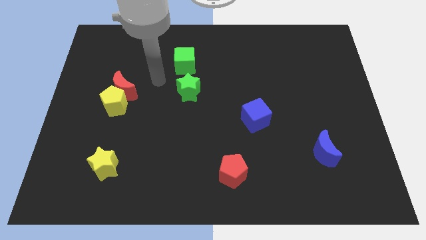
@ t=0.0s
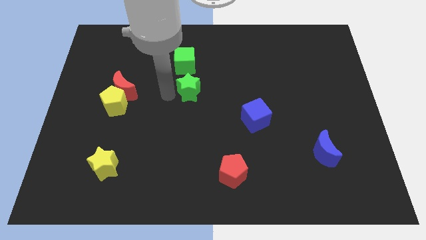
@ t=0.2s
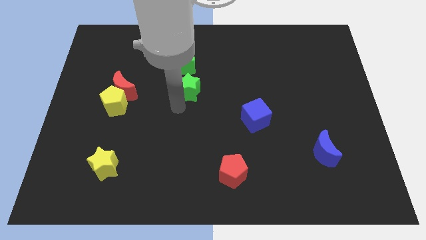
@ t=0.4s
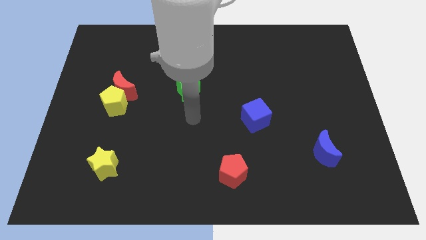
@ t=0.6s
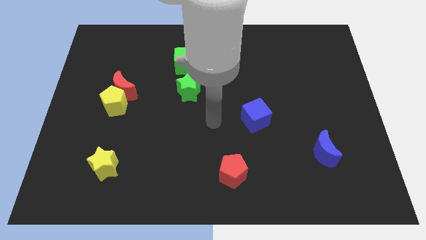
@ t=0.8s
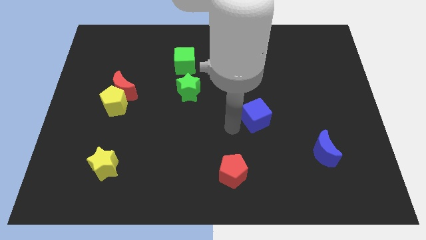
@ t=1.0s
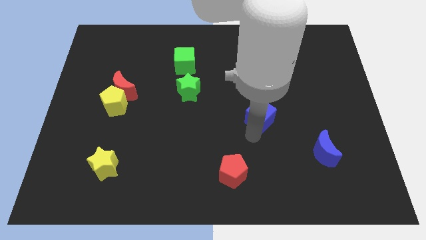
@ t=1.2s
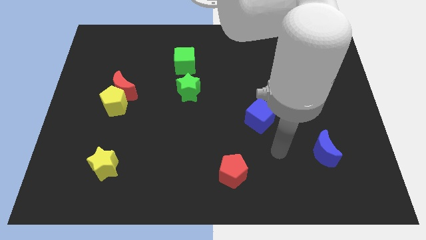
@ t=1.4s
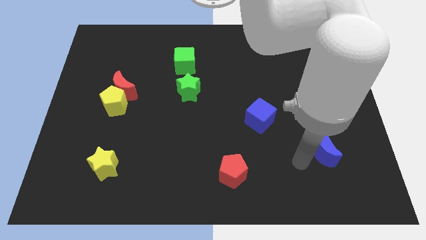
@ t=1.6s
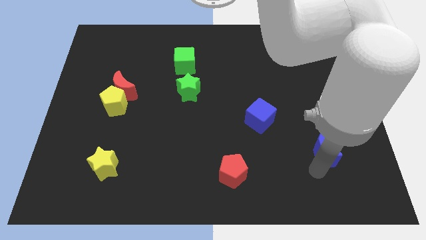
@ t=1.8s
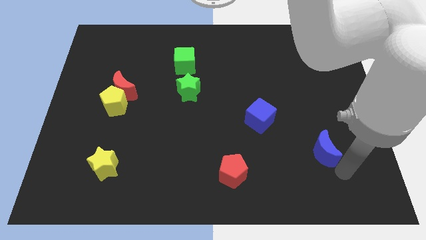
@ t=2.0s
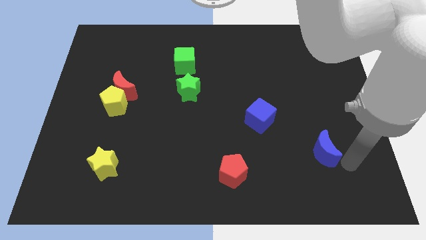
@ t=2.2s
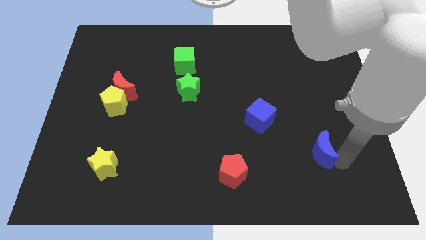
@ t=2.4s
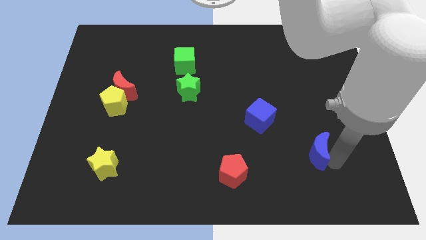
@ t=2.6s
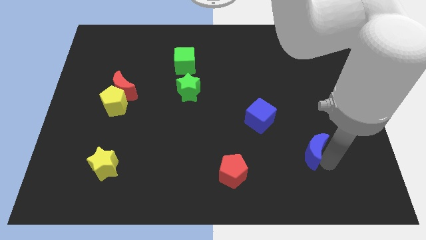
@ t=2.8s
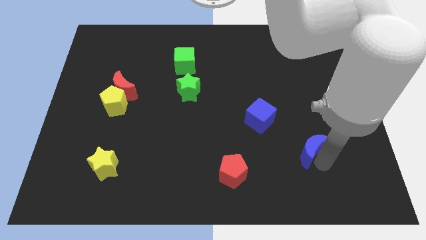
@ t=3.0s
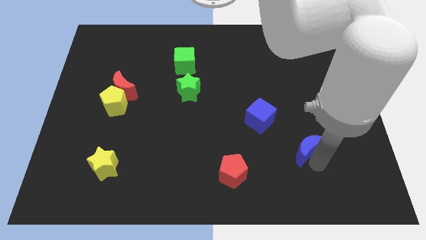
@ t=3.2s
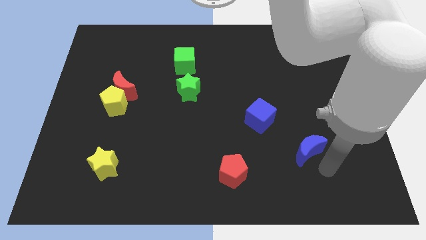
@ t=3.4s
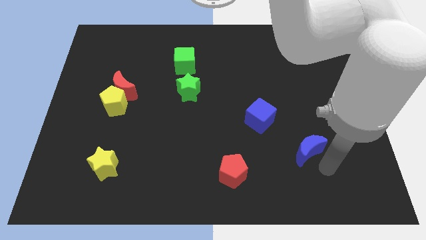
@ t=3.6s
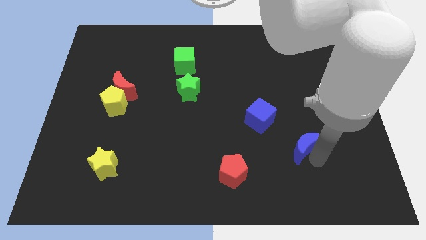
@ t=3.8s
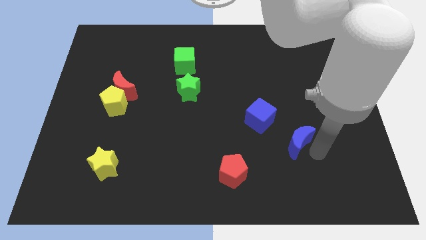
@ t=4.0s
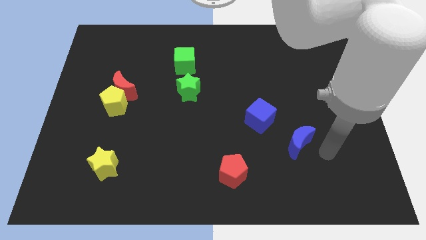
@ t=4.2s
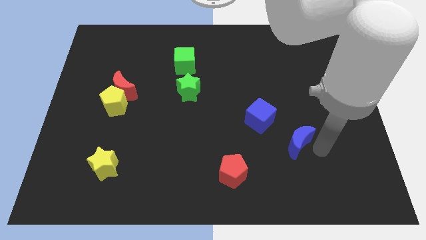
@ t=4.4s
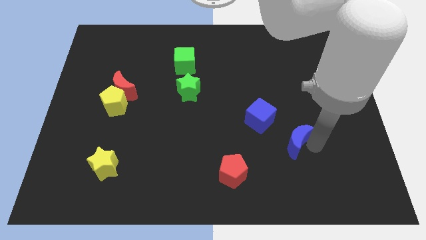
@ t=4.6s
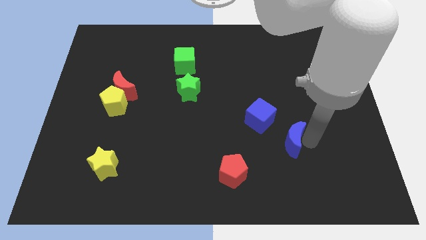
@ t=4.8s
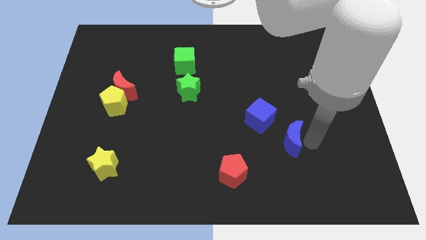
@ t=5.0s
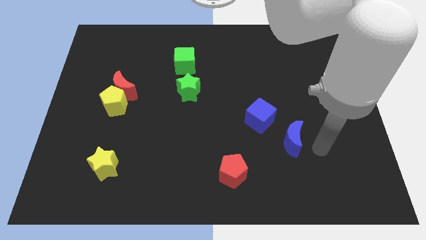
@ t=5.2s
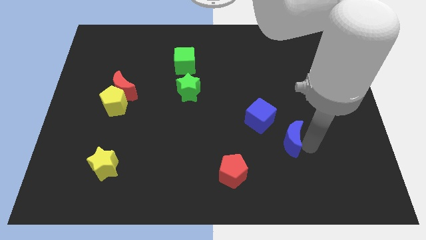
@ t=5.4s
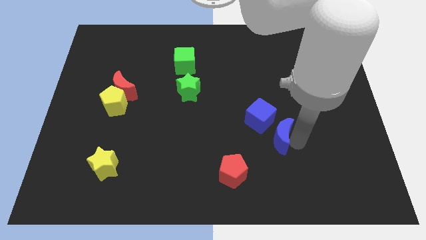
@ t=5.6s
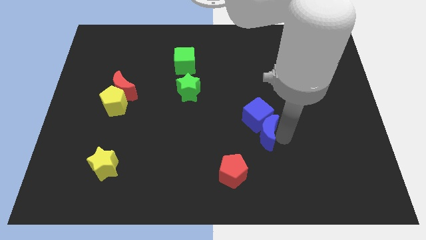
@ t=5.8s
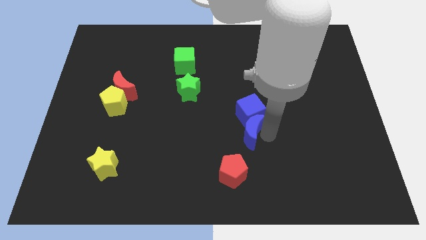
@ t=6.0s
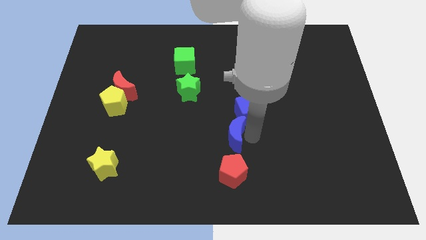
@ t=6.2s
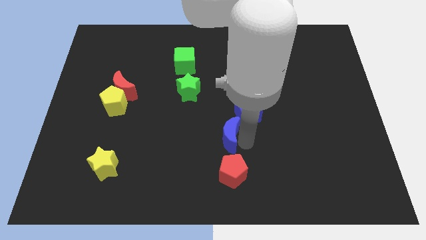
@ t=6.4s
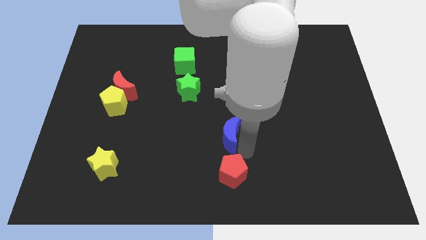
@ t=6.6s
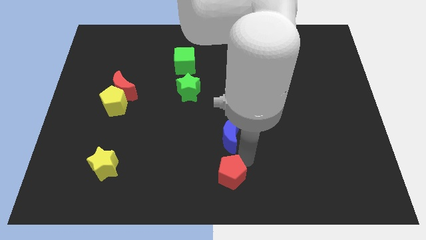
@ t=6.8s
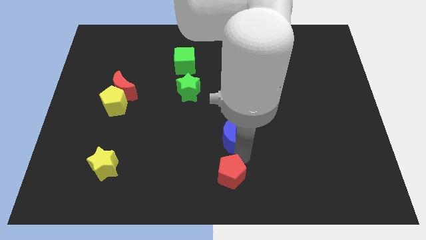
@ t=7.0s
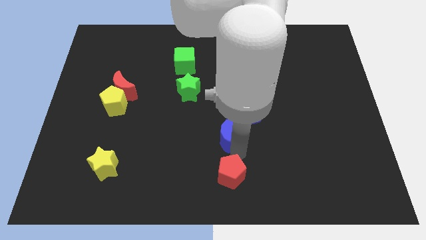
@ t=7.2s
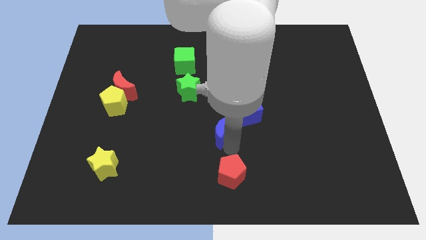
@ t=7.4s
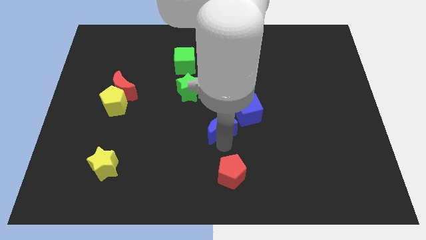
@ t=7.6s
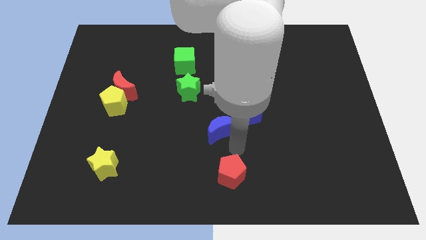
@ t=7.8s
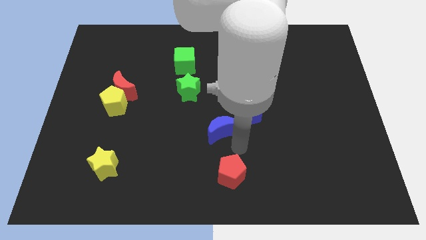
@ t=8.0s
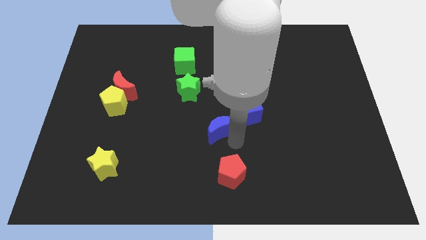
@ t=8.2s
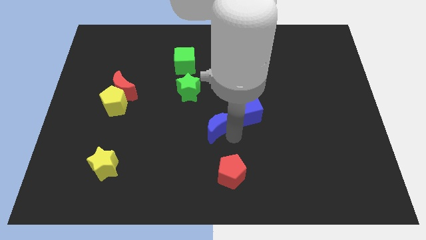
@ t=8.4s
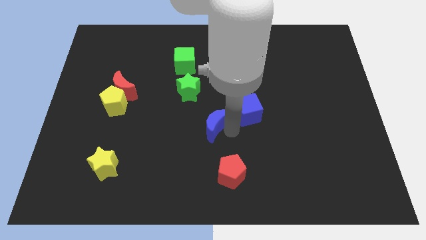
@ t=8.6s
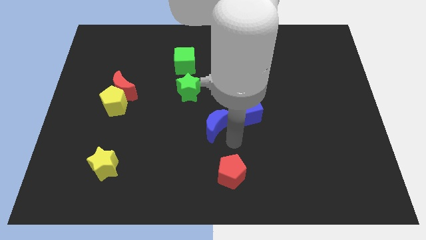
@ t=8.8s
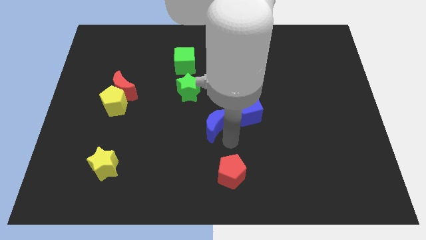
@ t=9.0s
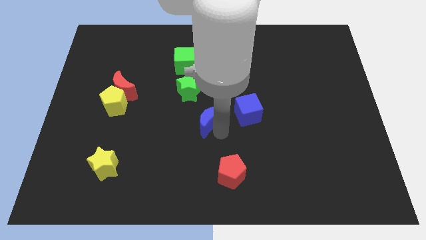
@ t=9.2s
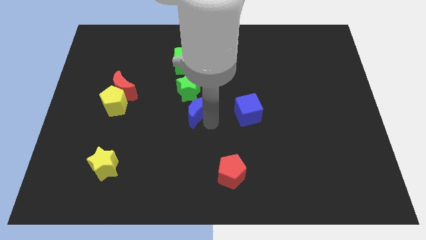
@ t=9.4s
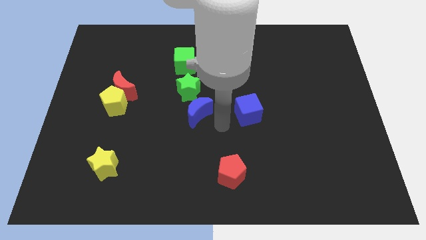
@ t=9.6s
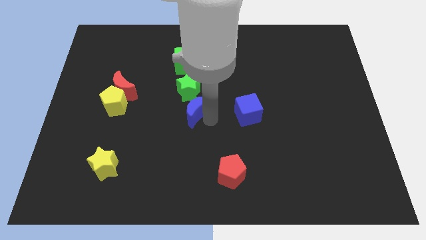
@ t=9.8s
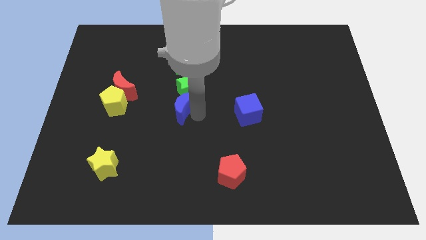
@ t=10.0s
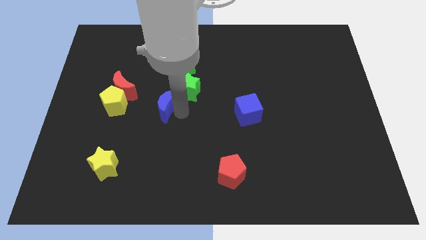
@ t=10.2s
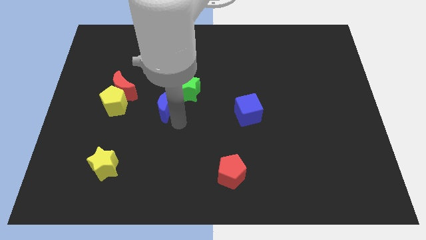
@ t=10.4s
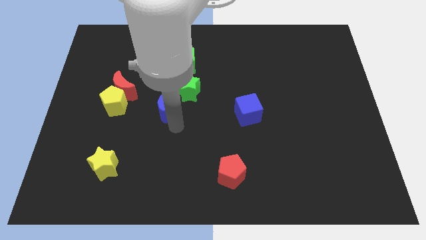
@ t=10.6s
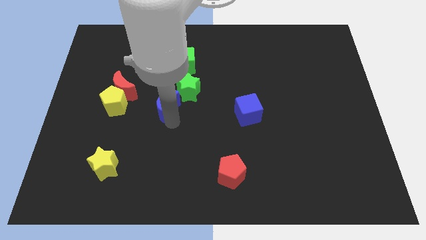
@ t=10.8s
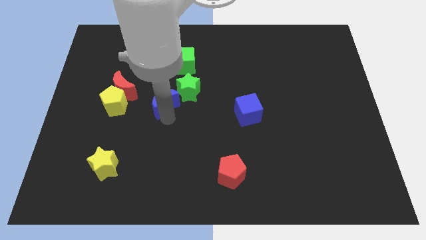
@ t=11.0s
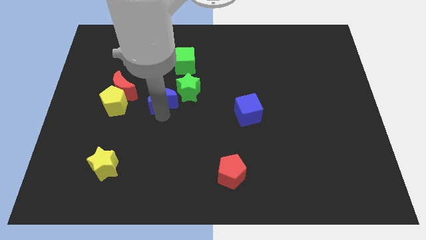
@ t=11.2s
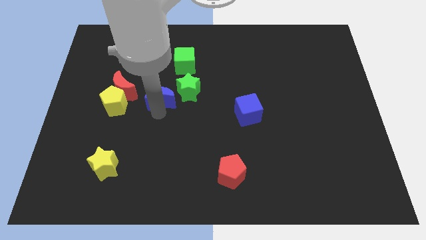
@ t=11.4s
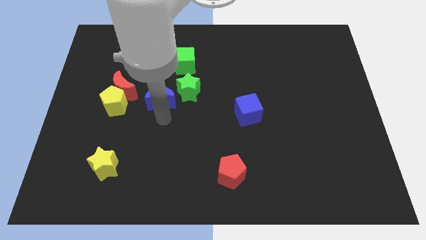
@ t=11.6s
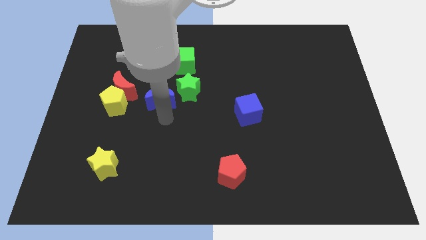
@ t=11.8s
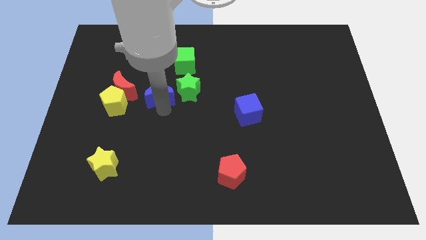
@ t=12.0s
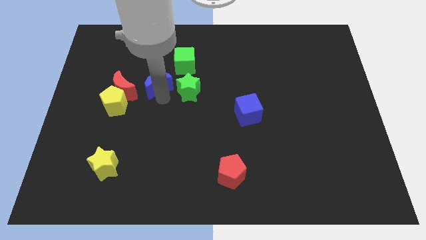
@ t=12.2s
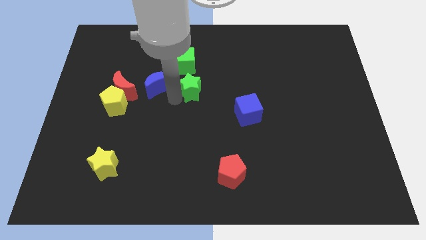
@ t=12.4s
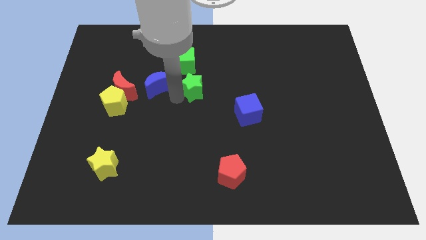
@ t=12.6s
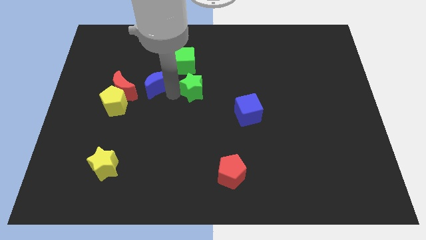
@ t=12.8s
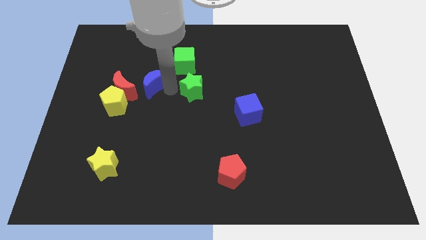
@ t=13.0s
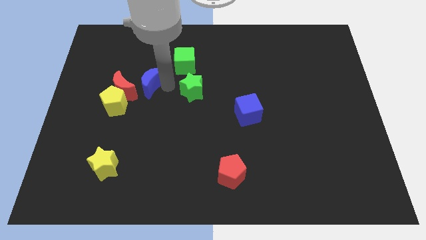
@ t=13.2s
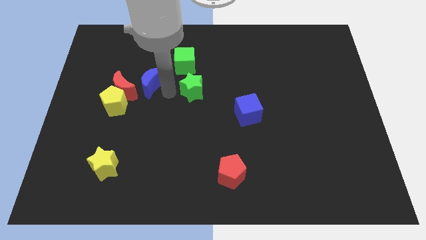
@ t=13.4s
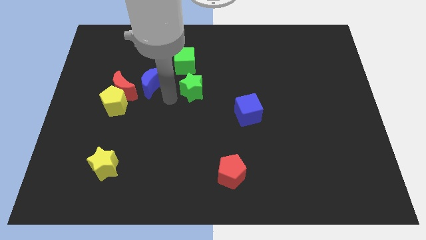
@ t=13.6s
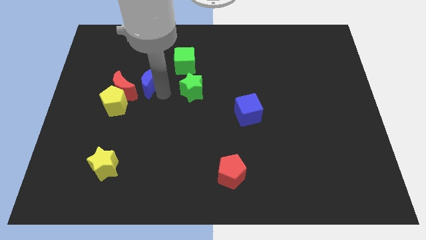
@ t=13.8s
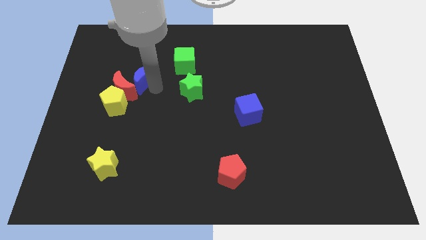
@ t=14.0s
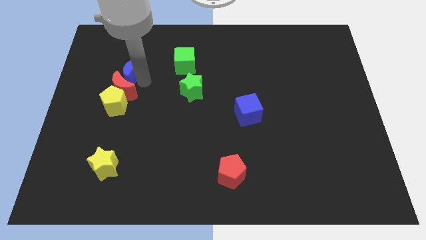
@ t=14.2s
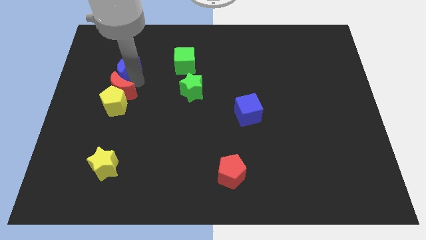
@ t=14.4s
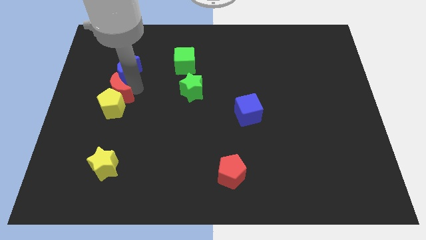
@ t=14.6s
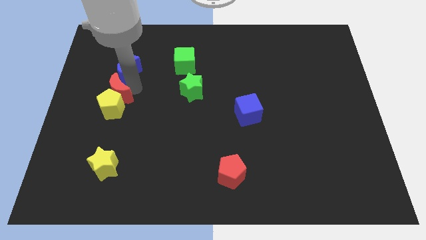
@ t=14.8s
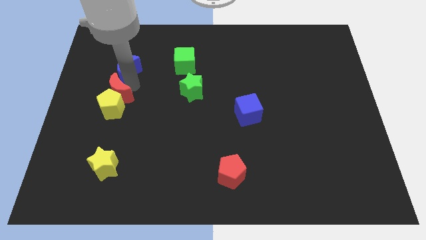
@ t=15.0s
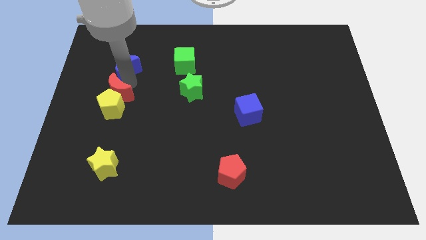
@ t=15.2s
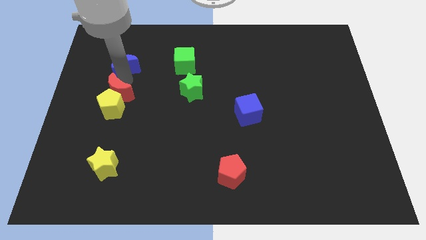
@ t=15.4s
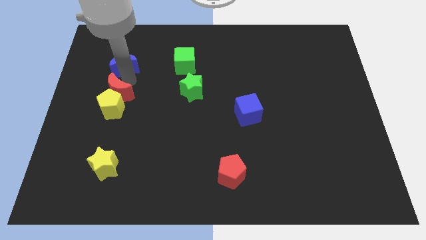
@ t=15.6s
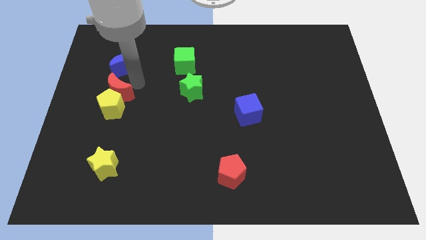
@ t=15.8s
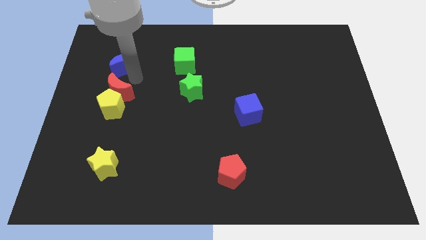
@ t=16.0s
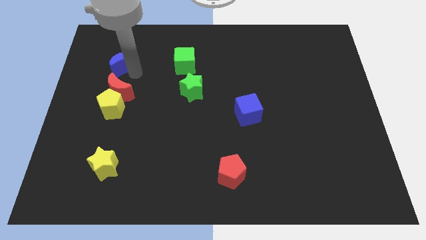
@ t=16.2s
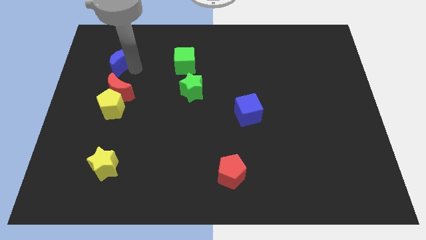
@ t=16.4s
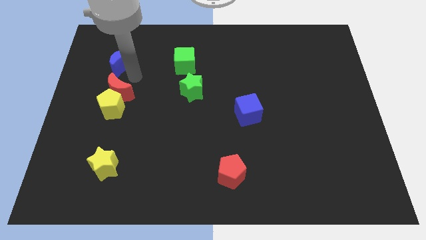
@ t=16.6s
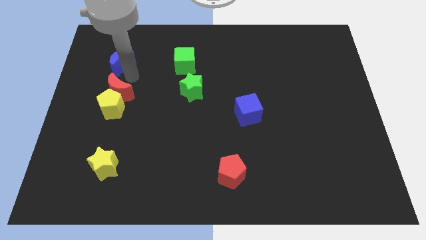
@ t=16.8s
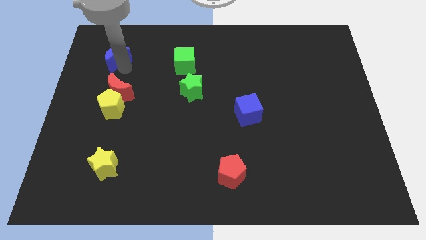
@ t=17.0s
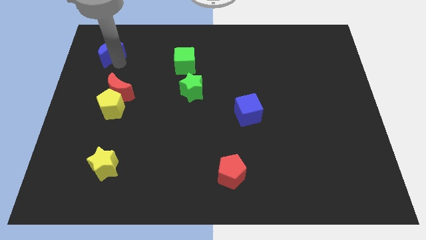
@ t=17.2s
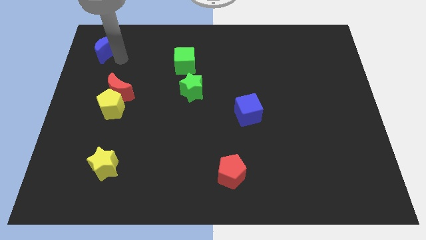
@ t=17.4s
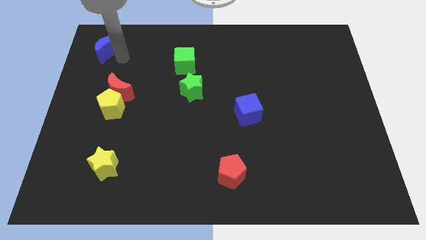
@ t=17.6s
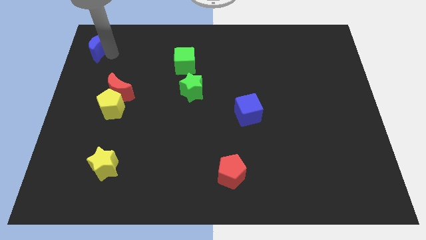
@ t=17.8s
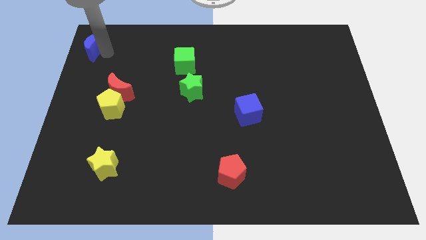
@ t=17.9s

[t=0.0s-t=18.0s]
put the blue moon to the top left of the board
